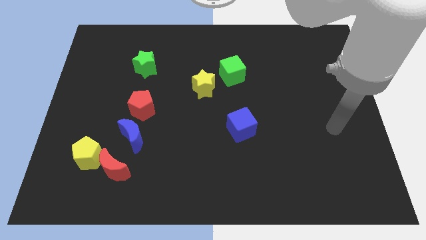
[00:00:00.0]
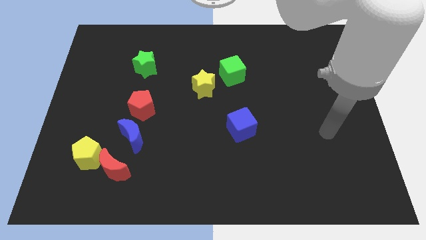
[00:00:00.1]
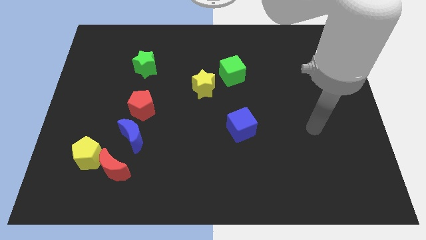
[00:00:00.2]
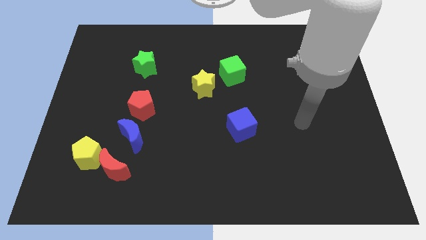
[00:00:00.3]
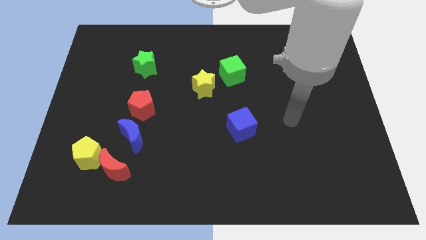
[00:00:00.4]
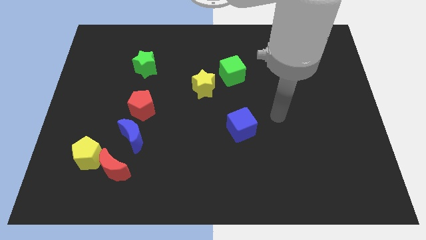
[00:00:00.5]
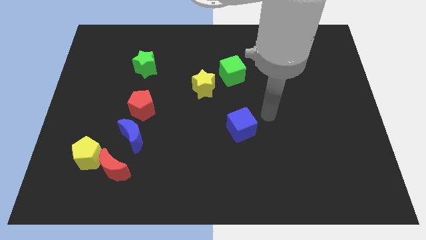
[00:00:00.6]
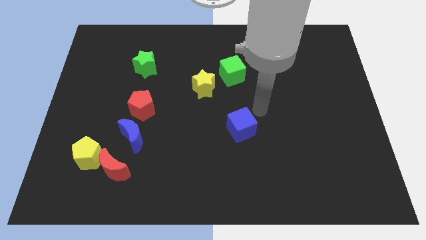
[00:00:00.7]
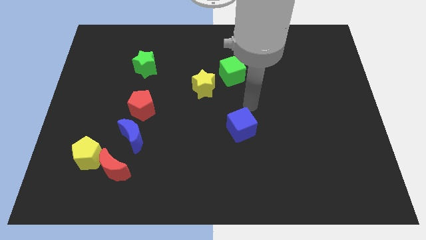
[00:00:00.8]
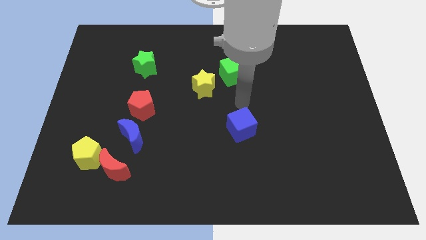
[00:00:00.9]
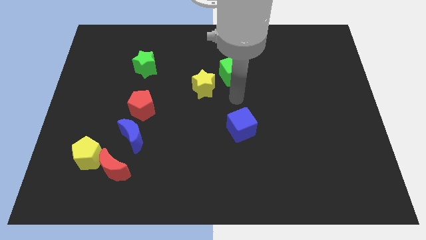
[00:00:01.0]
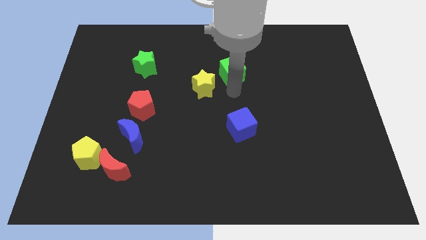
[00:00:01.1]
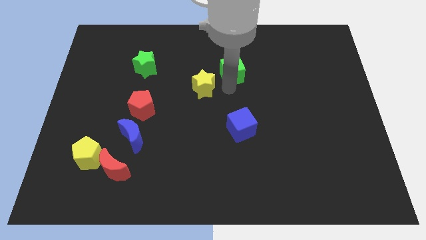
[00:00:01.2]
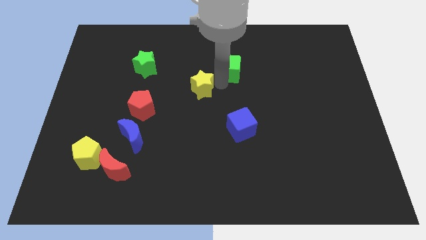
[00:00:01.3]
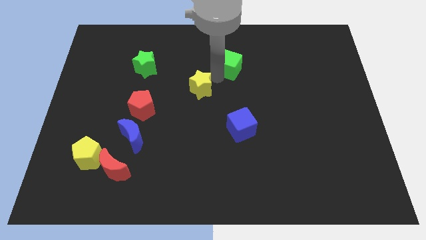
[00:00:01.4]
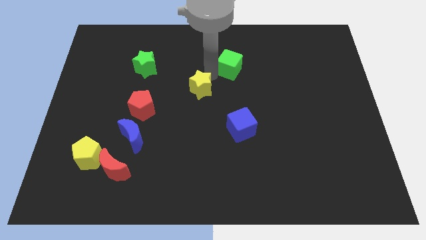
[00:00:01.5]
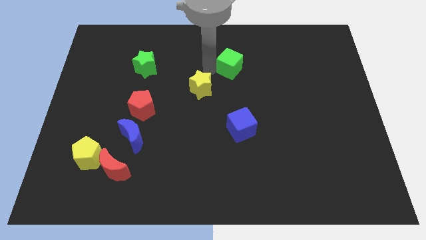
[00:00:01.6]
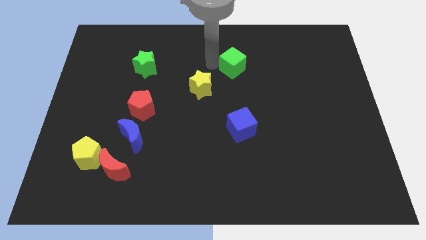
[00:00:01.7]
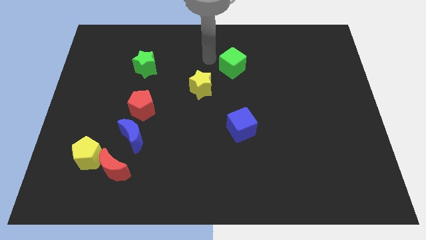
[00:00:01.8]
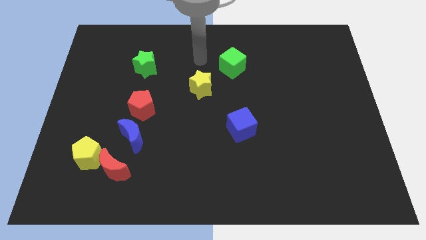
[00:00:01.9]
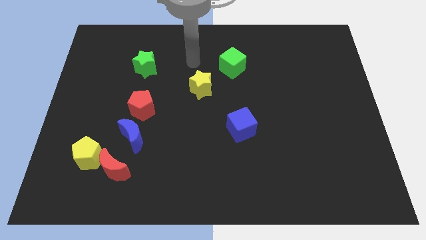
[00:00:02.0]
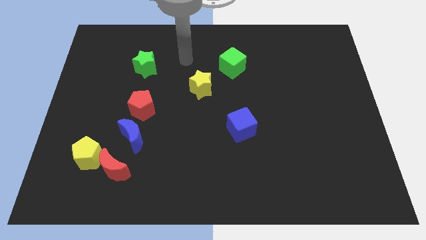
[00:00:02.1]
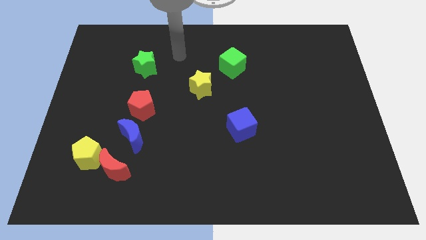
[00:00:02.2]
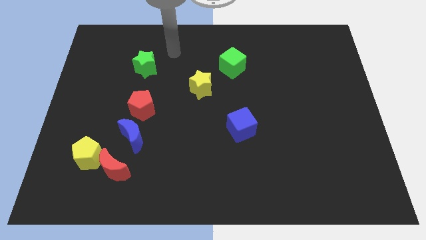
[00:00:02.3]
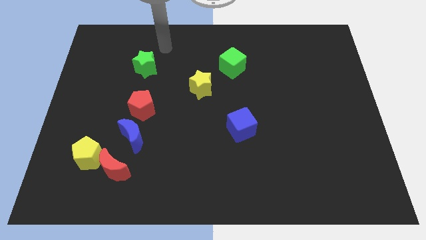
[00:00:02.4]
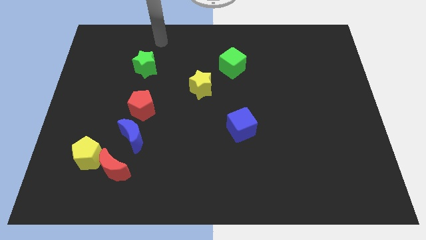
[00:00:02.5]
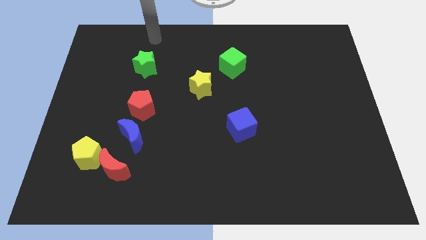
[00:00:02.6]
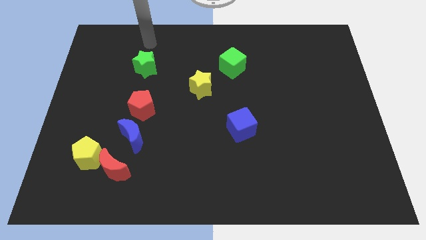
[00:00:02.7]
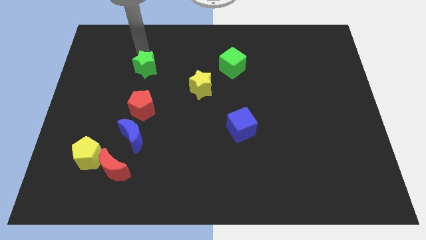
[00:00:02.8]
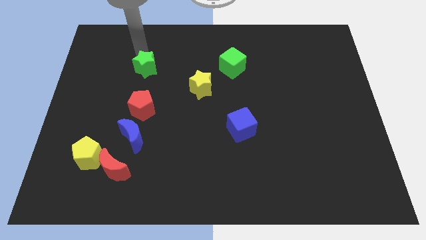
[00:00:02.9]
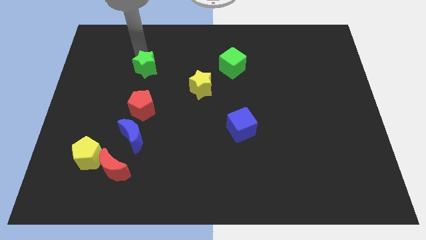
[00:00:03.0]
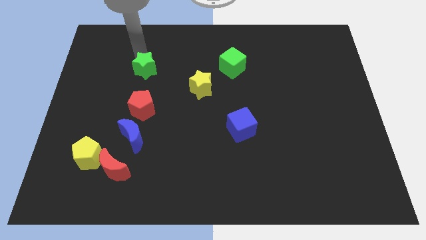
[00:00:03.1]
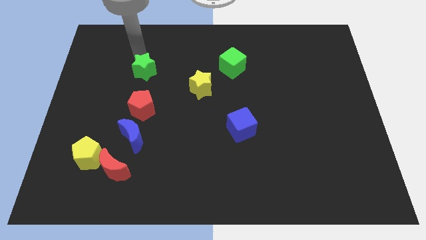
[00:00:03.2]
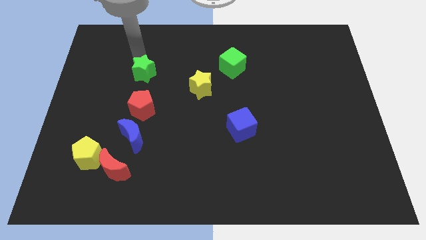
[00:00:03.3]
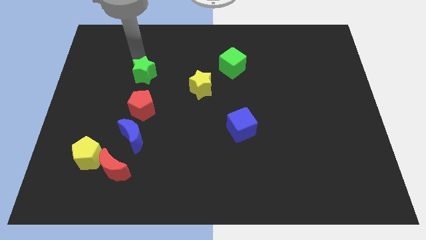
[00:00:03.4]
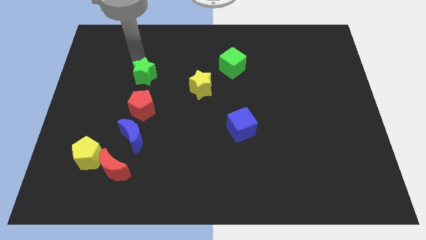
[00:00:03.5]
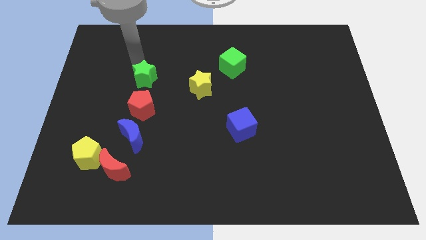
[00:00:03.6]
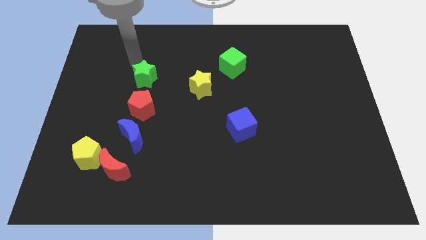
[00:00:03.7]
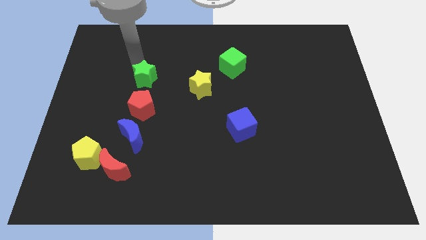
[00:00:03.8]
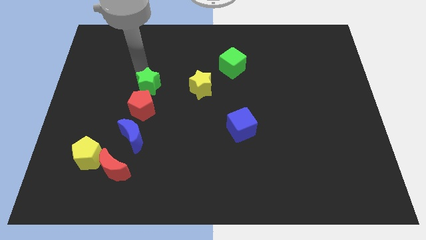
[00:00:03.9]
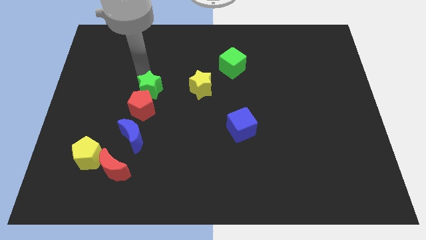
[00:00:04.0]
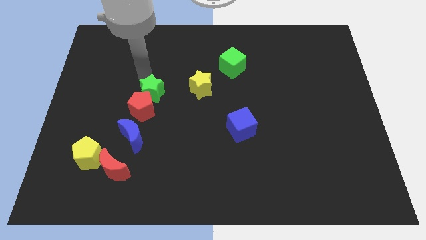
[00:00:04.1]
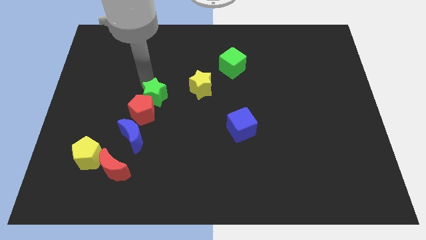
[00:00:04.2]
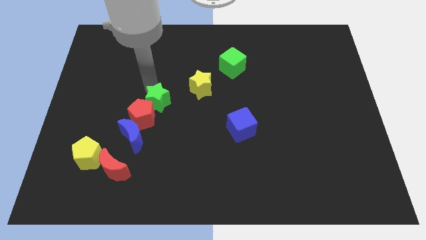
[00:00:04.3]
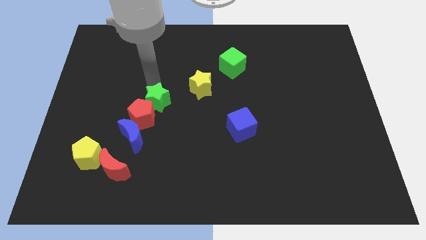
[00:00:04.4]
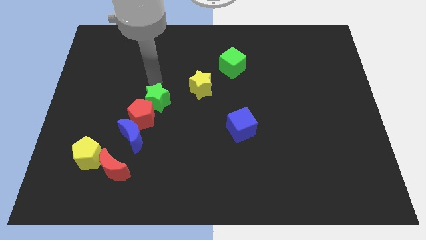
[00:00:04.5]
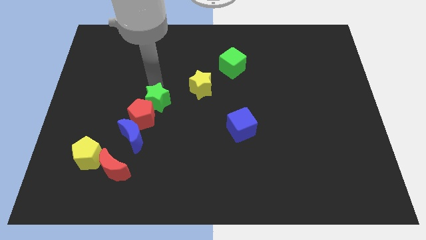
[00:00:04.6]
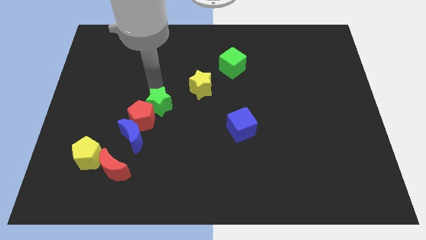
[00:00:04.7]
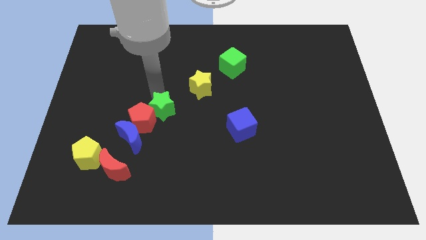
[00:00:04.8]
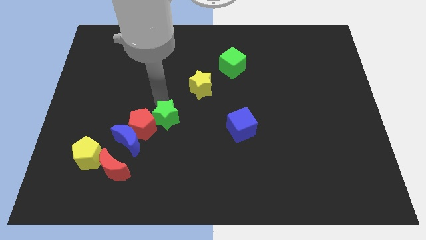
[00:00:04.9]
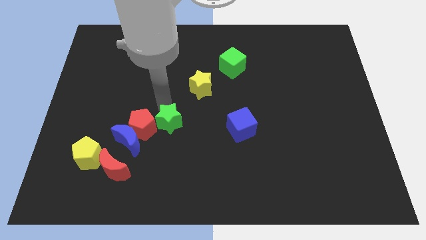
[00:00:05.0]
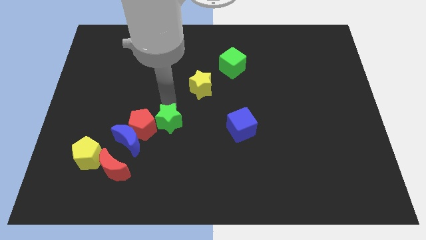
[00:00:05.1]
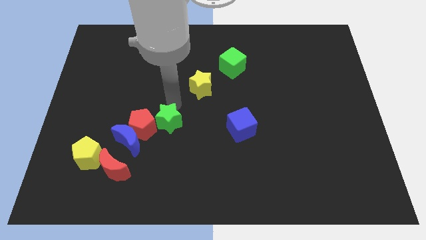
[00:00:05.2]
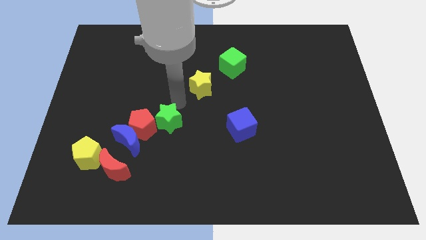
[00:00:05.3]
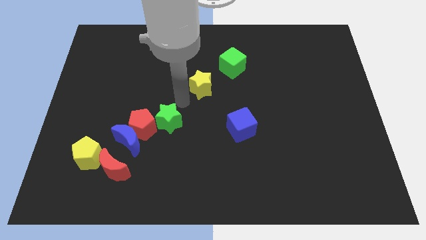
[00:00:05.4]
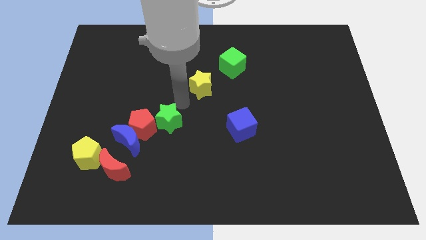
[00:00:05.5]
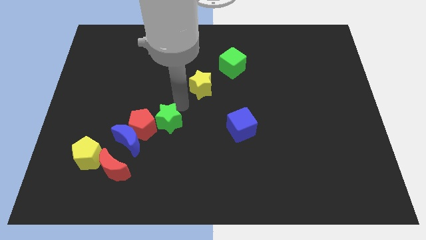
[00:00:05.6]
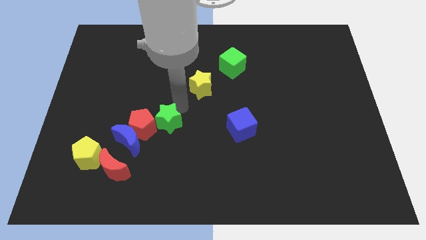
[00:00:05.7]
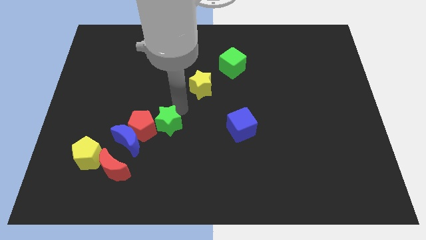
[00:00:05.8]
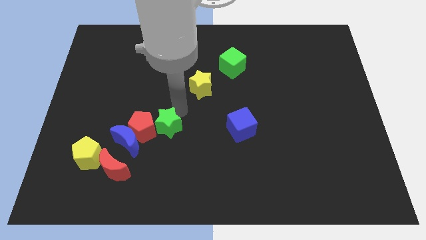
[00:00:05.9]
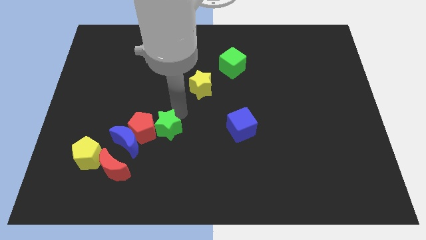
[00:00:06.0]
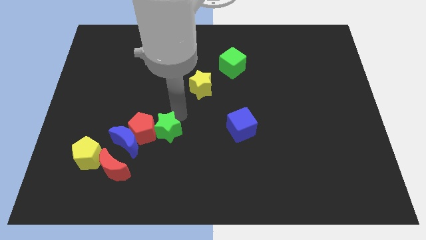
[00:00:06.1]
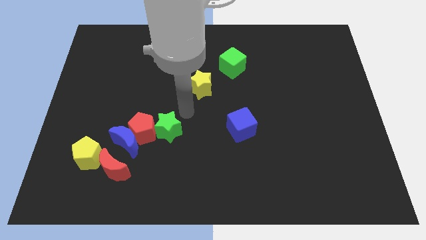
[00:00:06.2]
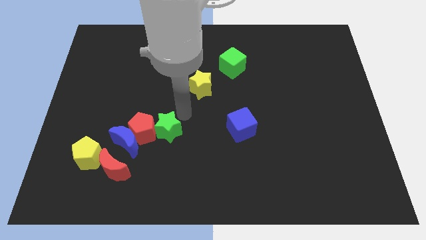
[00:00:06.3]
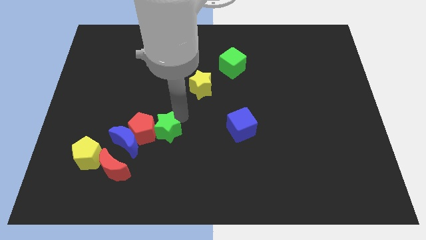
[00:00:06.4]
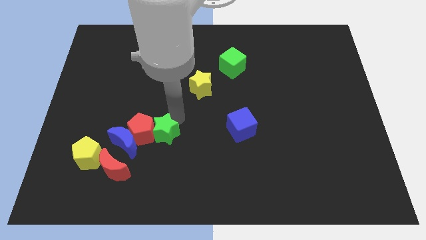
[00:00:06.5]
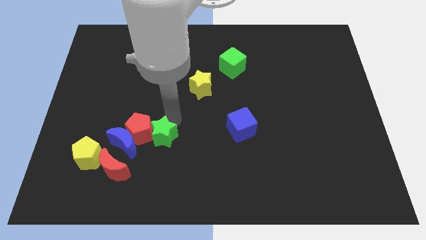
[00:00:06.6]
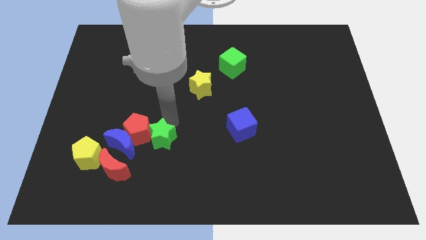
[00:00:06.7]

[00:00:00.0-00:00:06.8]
push the green star down

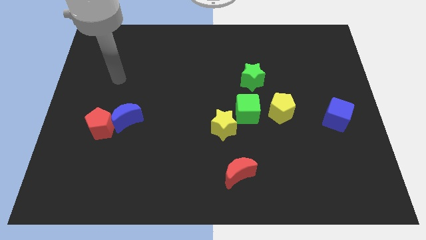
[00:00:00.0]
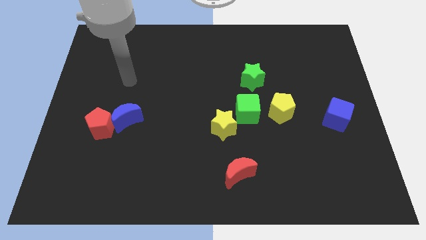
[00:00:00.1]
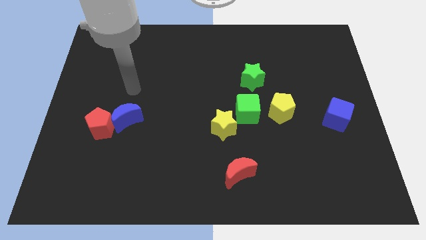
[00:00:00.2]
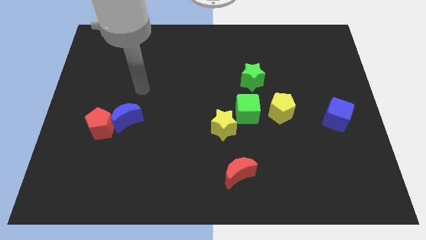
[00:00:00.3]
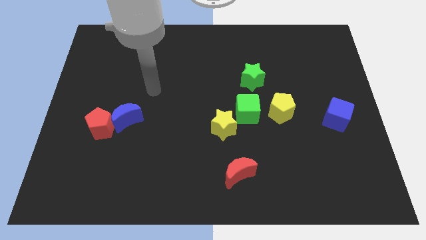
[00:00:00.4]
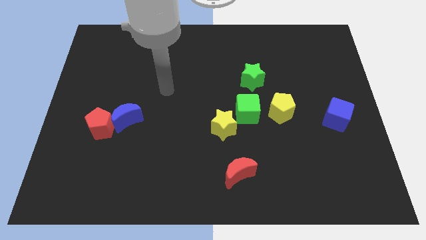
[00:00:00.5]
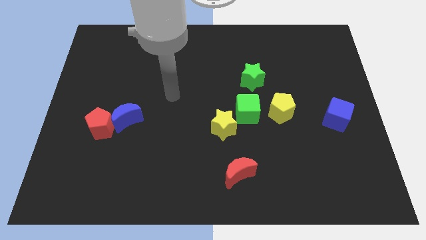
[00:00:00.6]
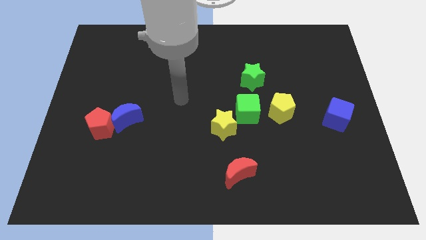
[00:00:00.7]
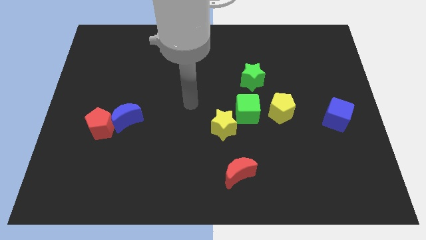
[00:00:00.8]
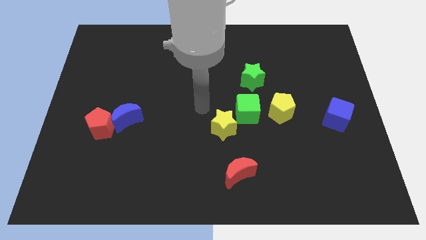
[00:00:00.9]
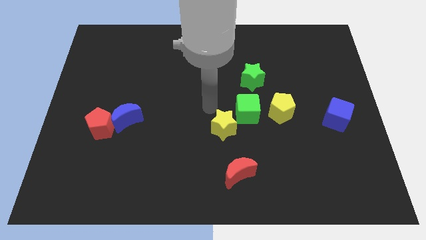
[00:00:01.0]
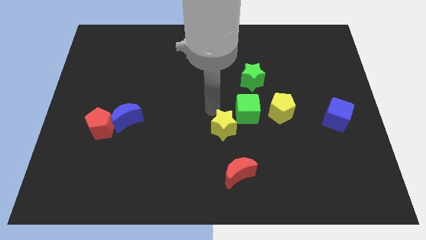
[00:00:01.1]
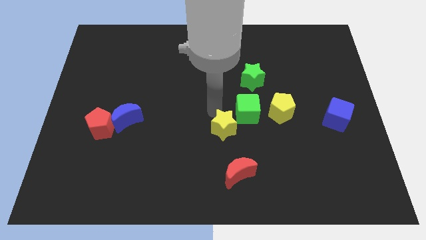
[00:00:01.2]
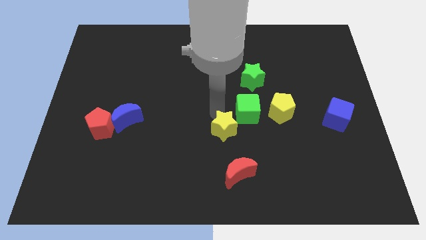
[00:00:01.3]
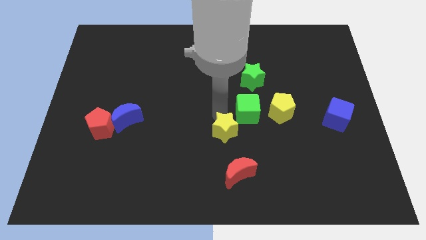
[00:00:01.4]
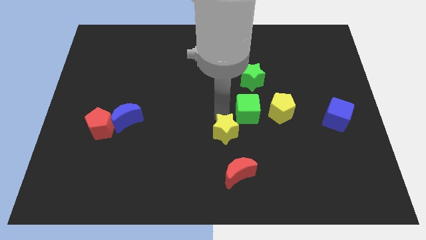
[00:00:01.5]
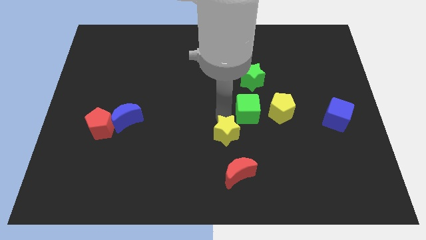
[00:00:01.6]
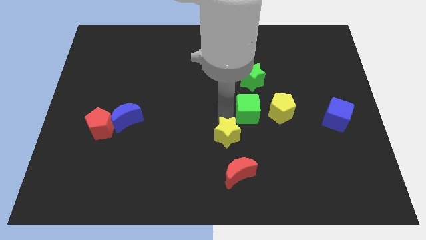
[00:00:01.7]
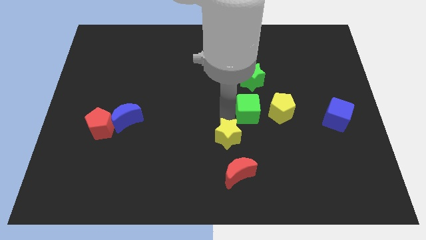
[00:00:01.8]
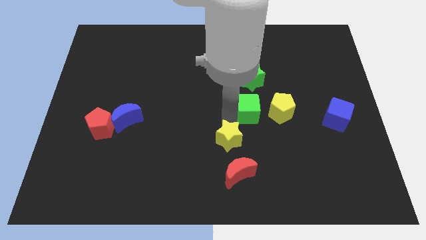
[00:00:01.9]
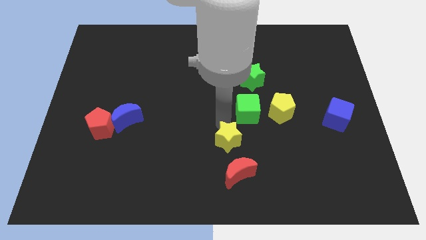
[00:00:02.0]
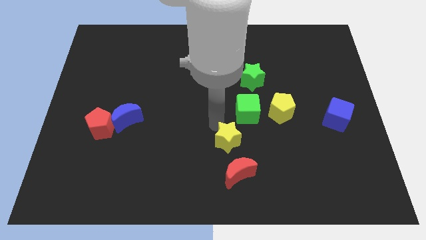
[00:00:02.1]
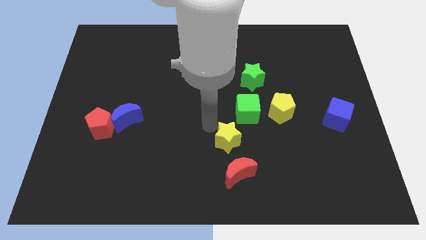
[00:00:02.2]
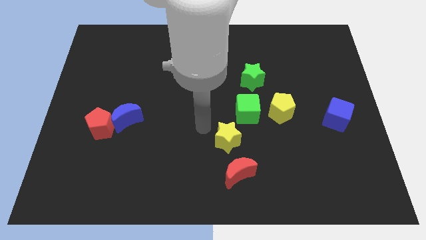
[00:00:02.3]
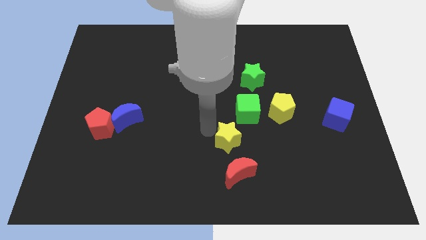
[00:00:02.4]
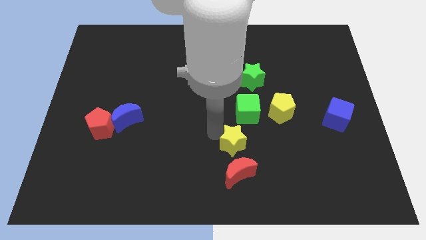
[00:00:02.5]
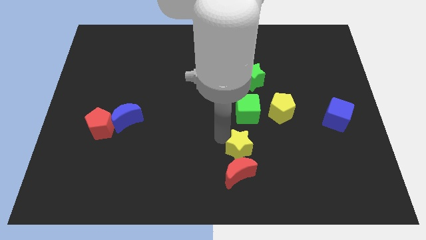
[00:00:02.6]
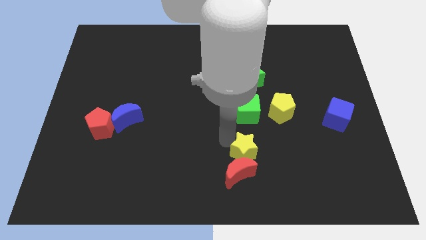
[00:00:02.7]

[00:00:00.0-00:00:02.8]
slide the yellow star diagonally down and right a little
